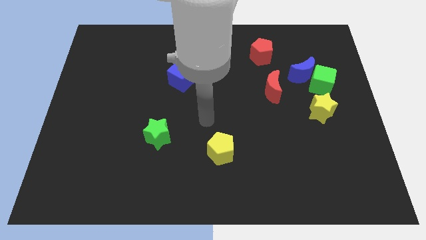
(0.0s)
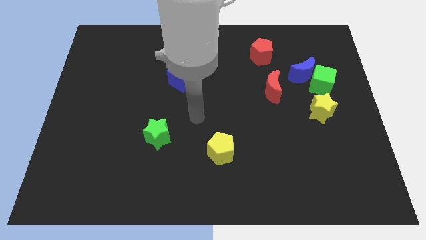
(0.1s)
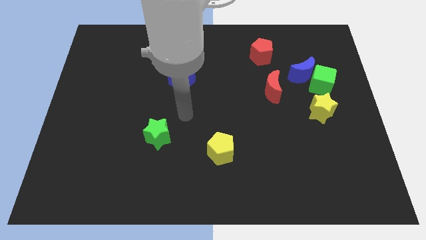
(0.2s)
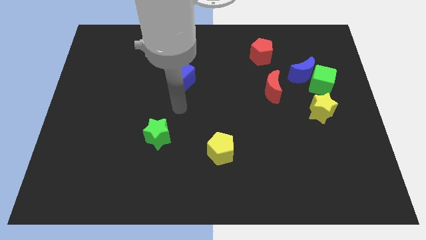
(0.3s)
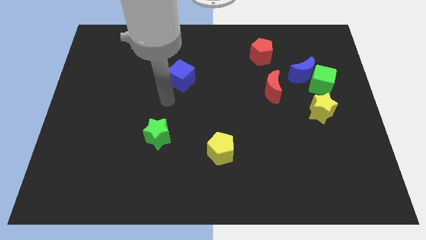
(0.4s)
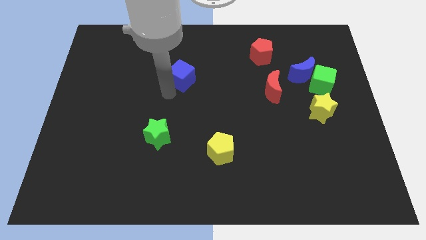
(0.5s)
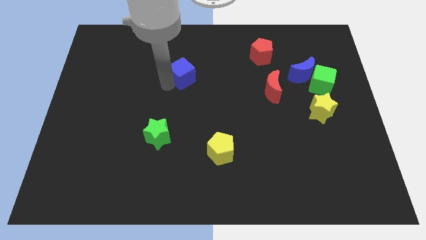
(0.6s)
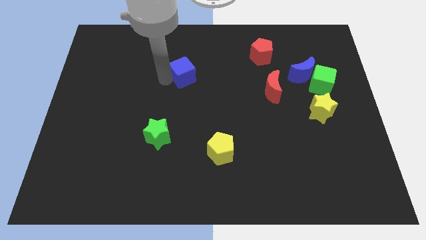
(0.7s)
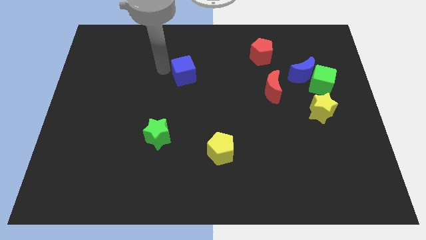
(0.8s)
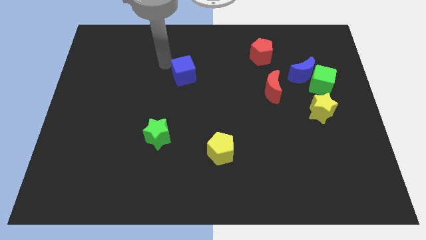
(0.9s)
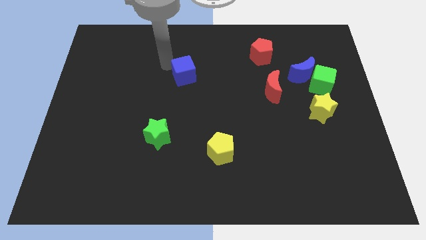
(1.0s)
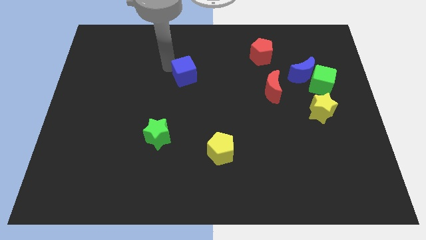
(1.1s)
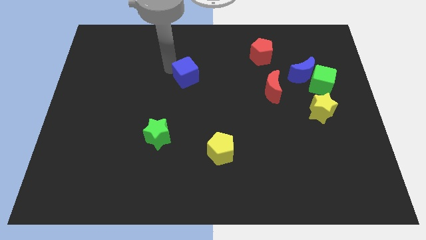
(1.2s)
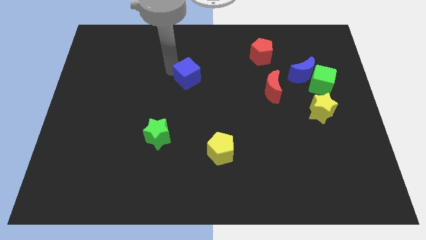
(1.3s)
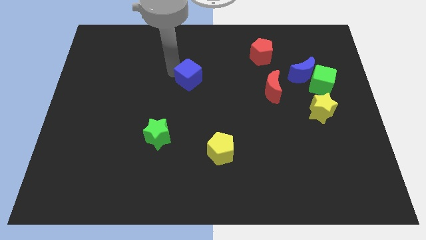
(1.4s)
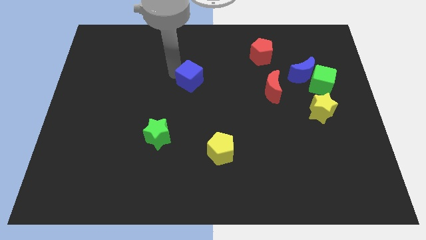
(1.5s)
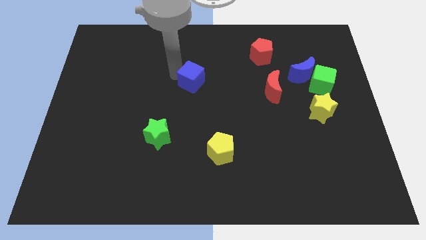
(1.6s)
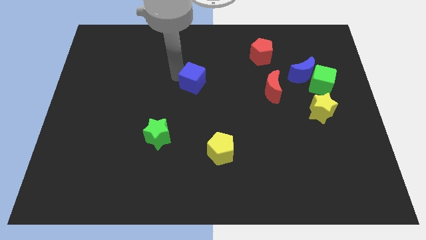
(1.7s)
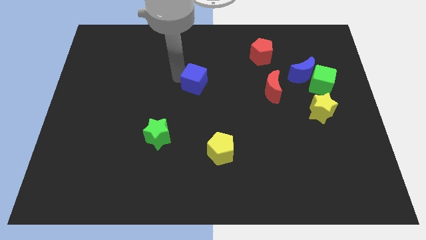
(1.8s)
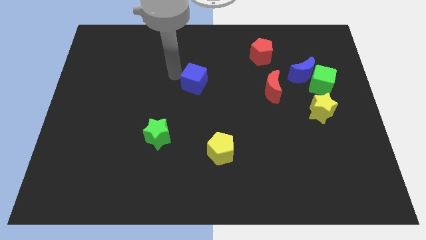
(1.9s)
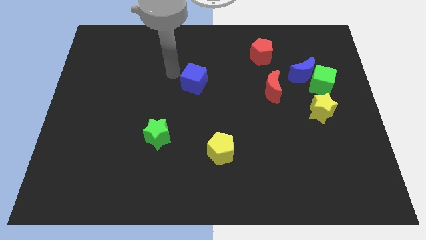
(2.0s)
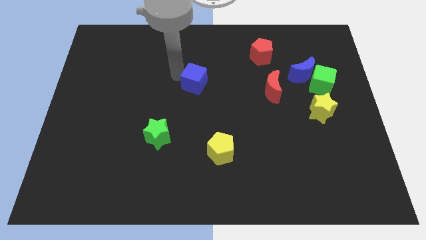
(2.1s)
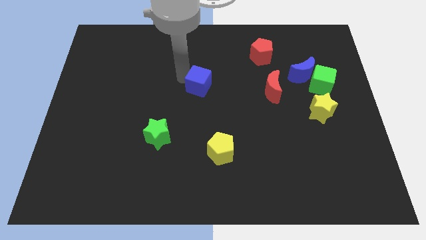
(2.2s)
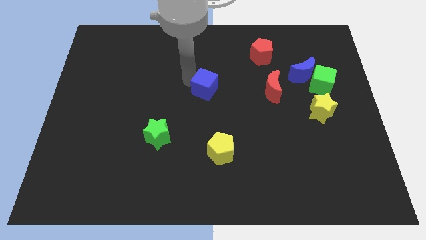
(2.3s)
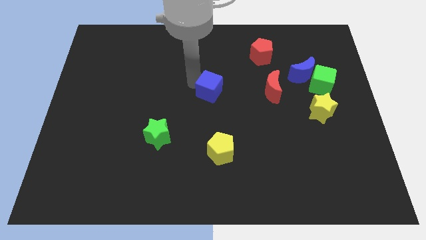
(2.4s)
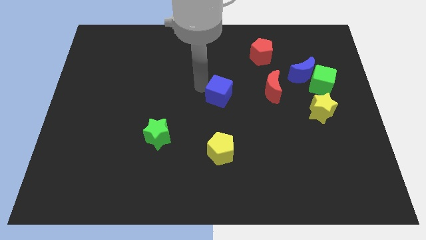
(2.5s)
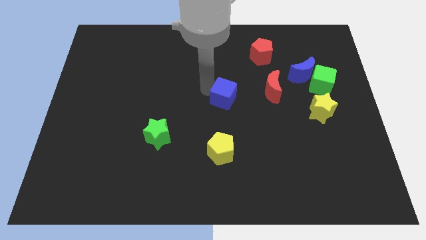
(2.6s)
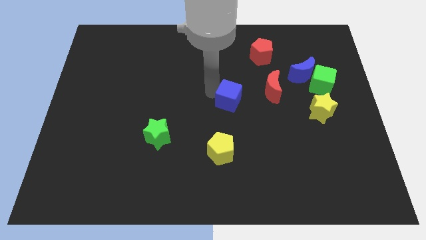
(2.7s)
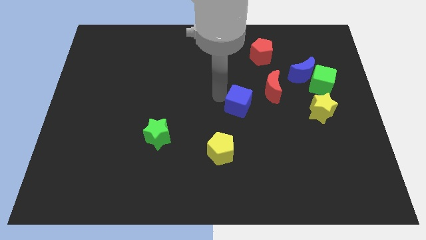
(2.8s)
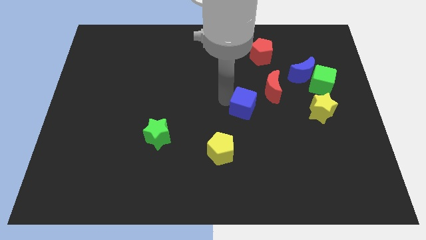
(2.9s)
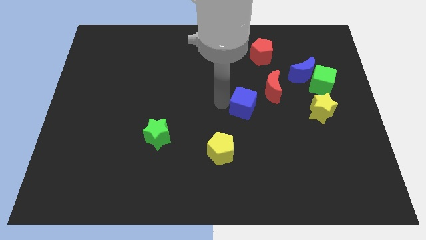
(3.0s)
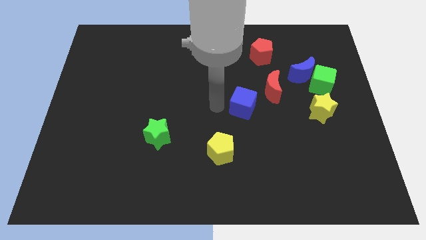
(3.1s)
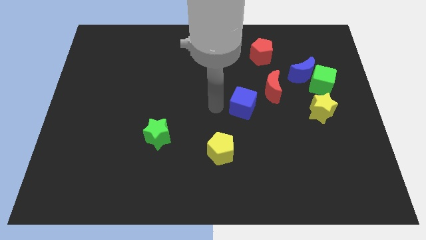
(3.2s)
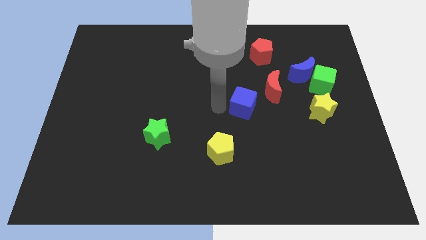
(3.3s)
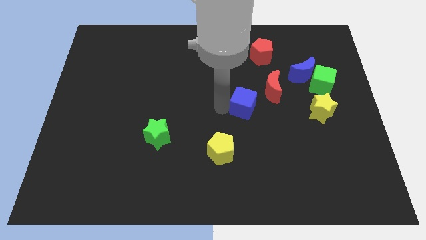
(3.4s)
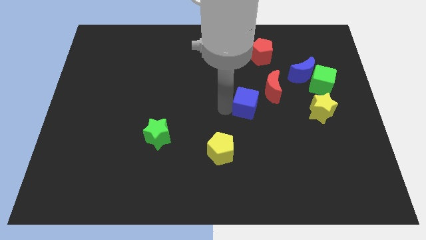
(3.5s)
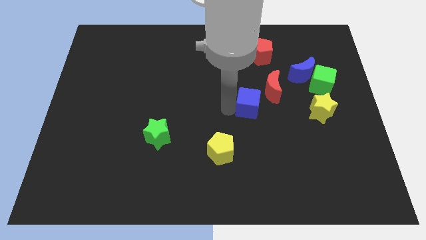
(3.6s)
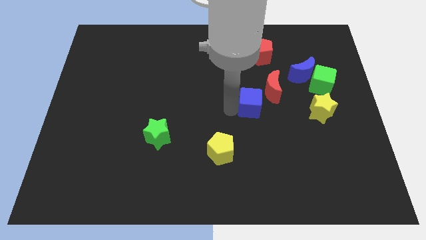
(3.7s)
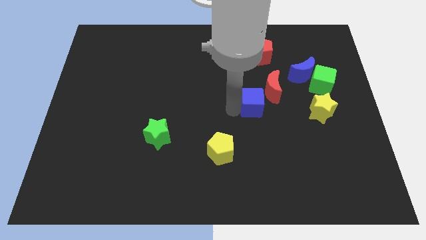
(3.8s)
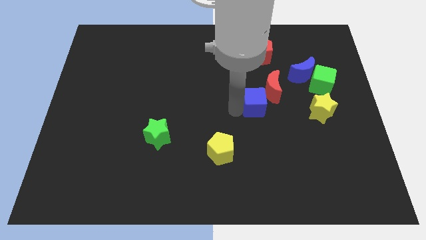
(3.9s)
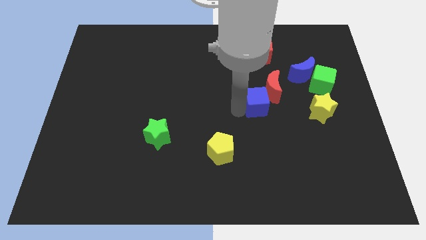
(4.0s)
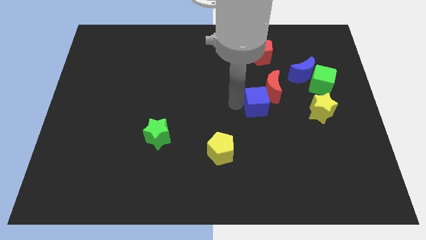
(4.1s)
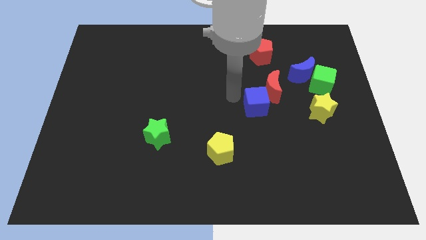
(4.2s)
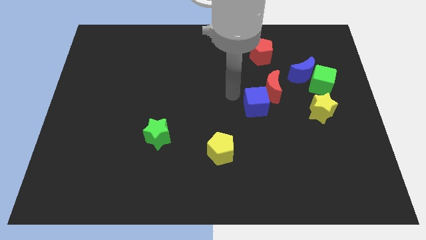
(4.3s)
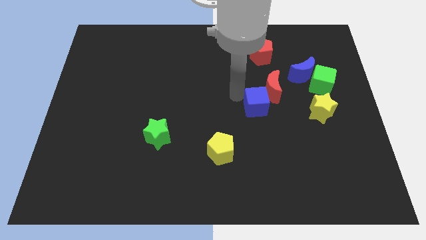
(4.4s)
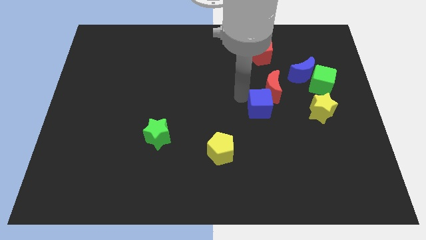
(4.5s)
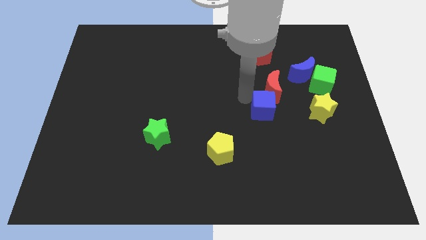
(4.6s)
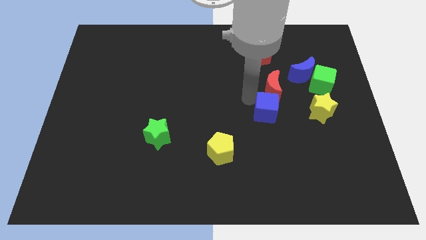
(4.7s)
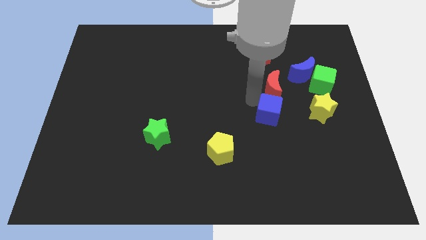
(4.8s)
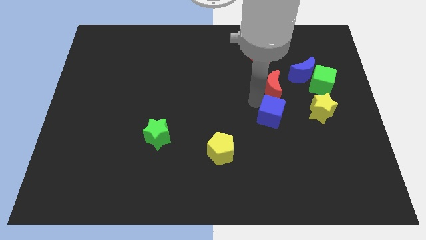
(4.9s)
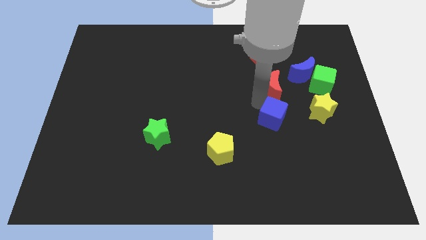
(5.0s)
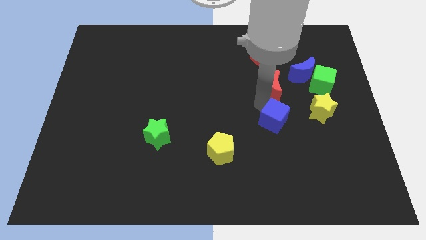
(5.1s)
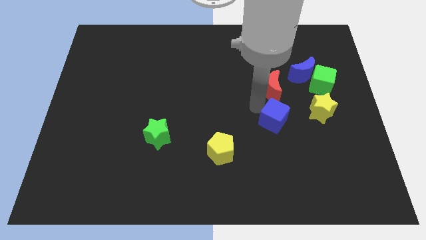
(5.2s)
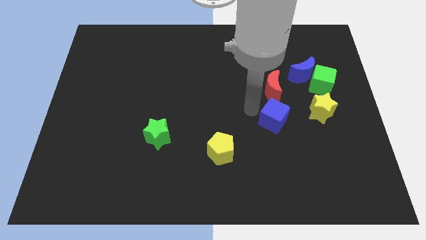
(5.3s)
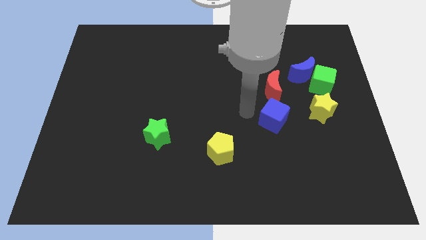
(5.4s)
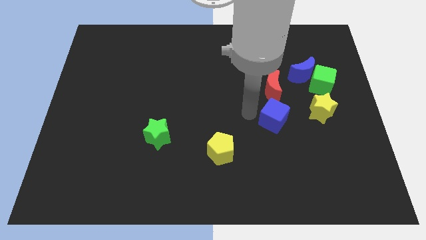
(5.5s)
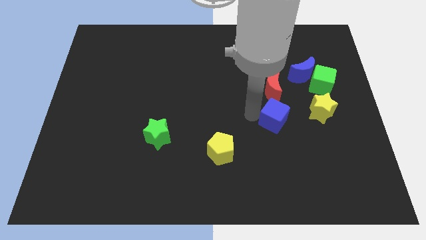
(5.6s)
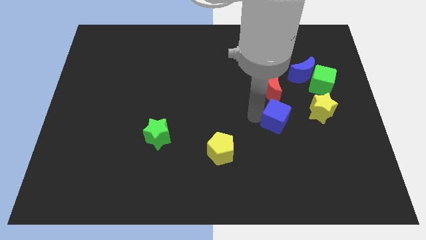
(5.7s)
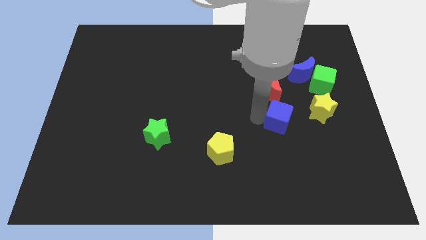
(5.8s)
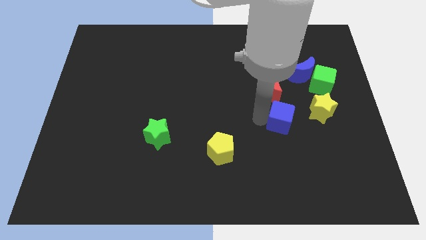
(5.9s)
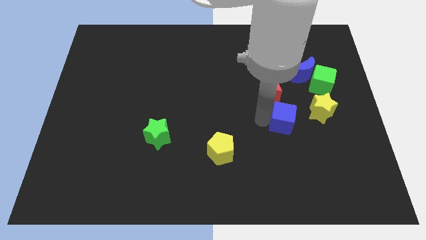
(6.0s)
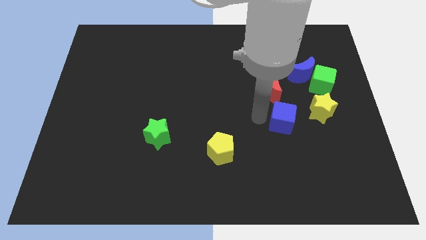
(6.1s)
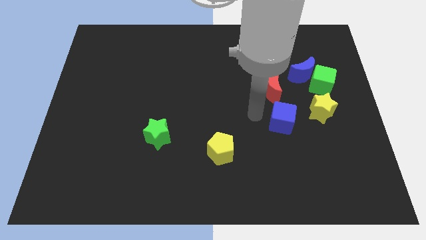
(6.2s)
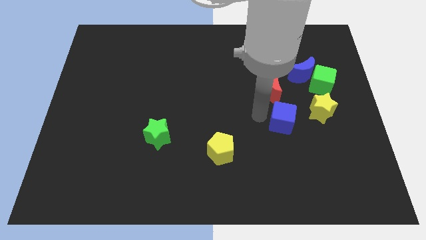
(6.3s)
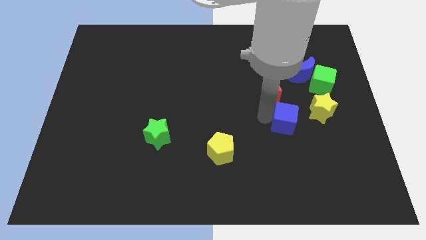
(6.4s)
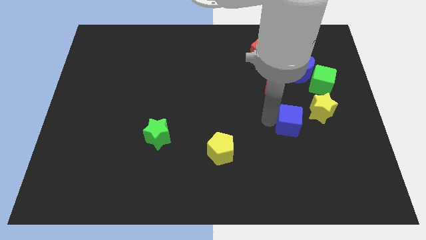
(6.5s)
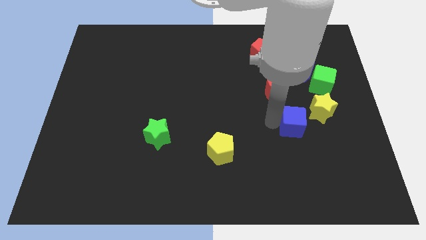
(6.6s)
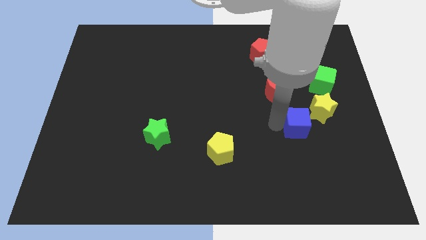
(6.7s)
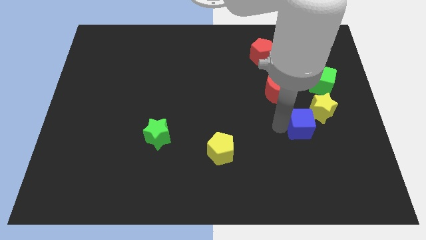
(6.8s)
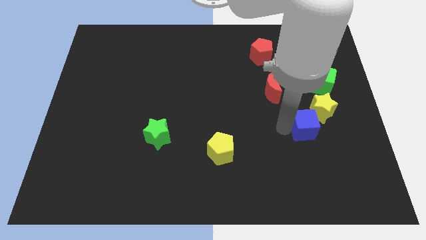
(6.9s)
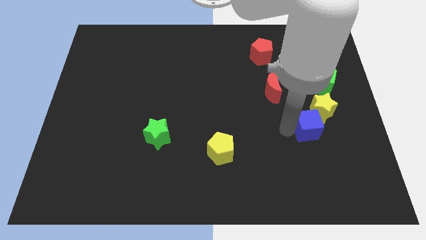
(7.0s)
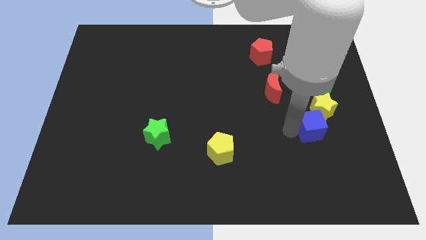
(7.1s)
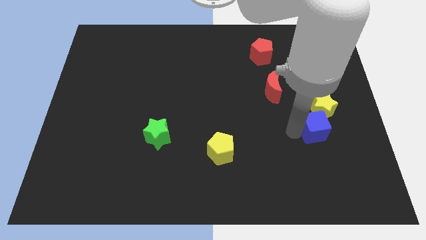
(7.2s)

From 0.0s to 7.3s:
put the blue cube to the bottom of the green cube
